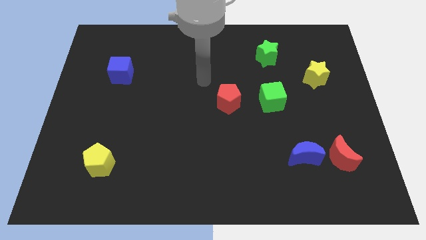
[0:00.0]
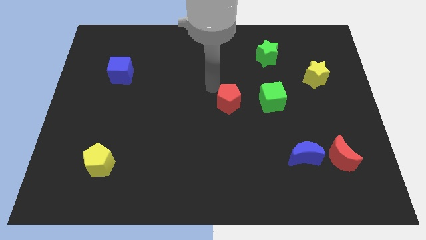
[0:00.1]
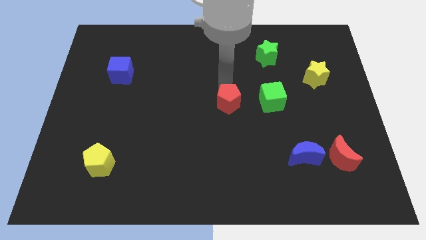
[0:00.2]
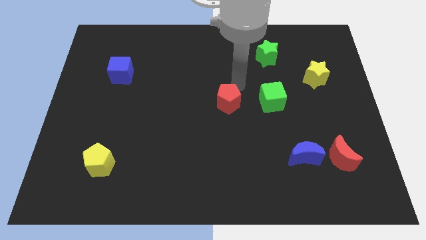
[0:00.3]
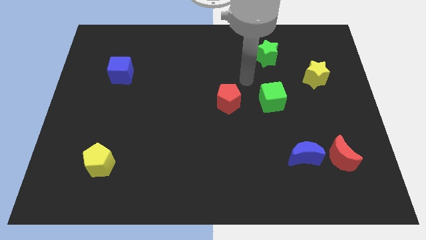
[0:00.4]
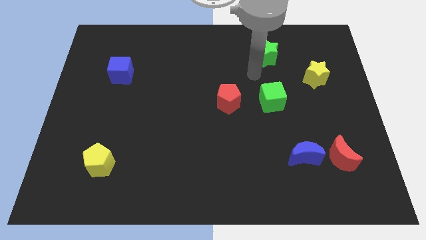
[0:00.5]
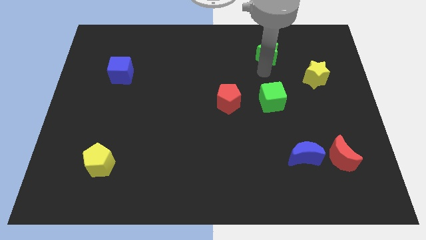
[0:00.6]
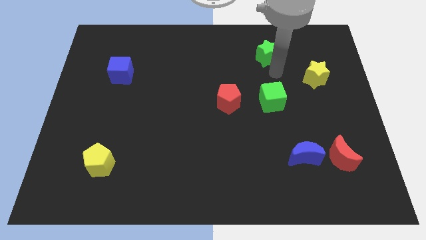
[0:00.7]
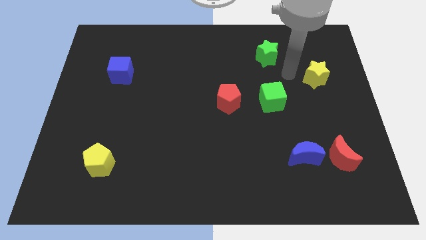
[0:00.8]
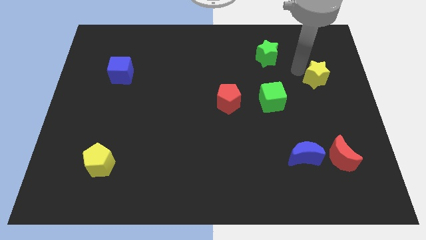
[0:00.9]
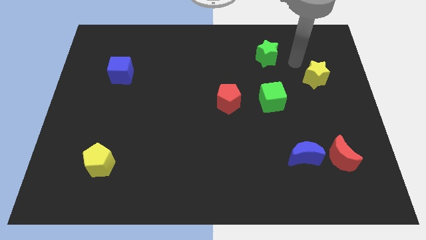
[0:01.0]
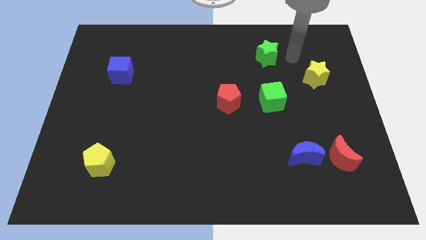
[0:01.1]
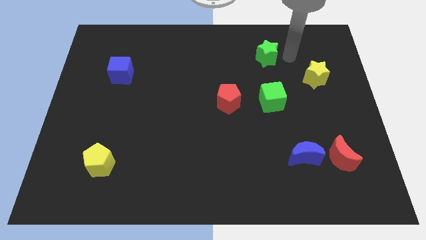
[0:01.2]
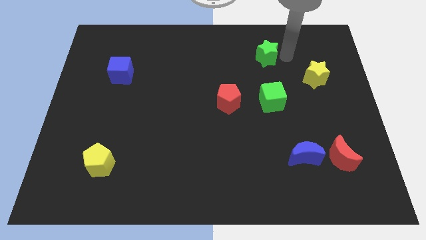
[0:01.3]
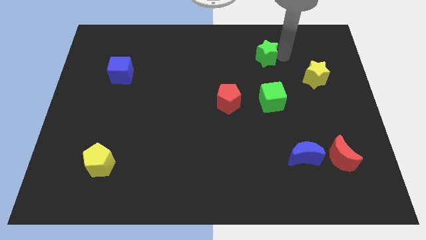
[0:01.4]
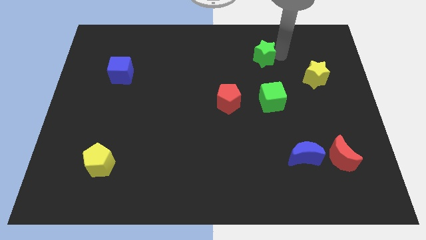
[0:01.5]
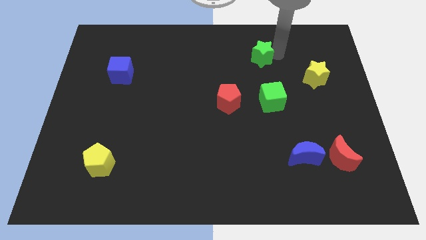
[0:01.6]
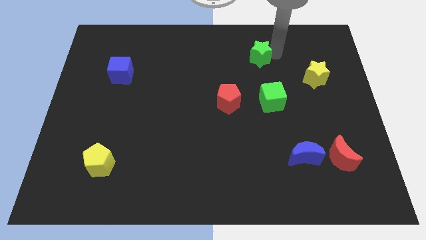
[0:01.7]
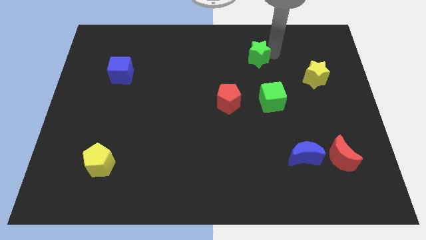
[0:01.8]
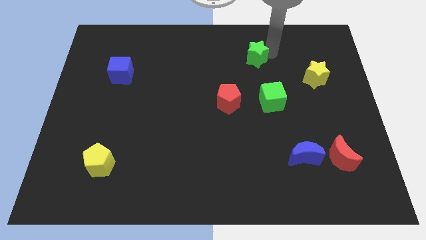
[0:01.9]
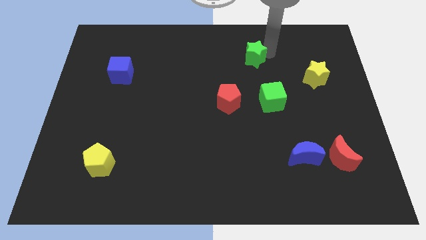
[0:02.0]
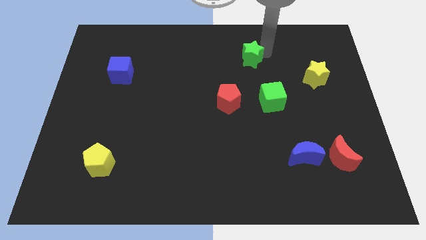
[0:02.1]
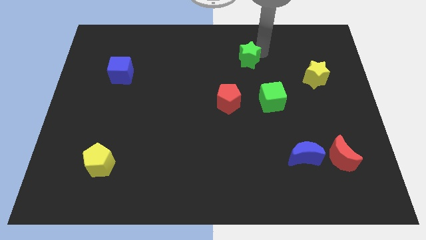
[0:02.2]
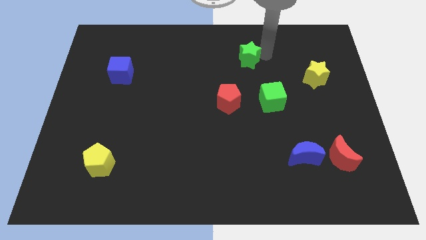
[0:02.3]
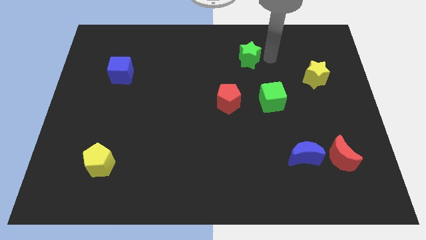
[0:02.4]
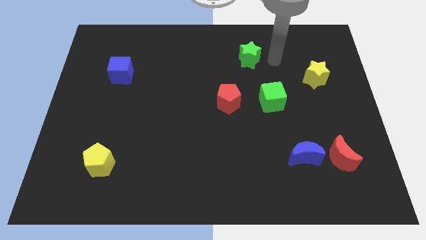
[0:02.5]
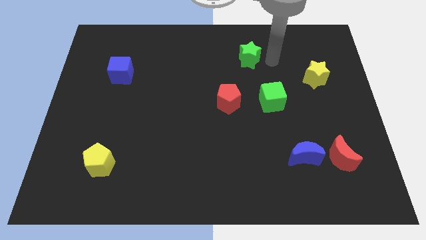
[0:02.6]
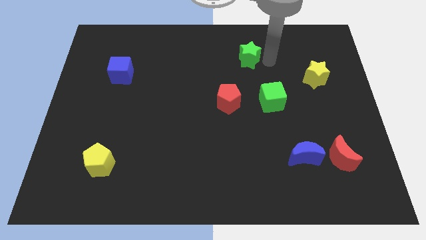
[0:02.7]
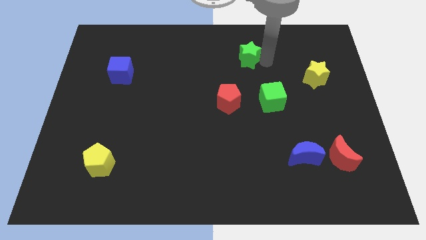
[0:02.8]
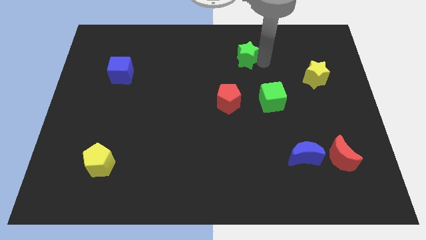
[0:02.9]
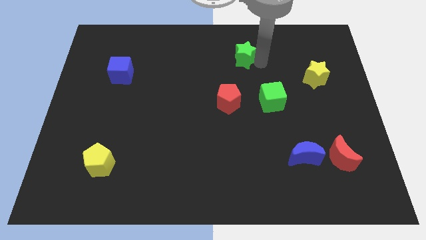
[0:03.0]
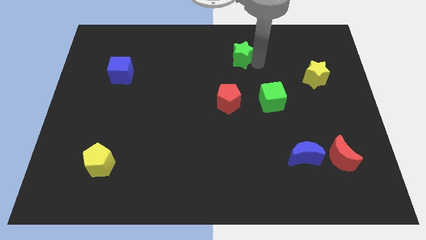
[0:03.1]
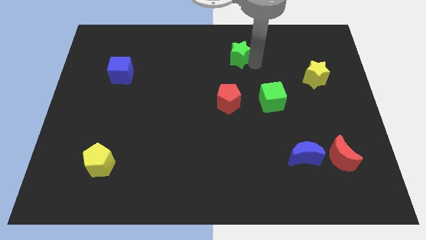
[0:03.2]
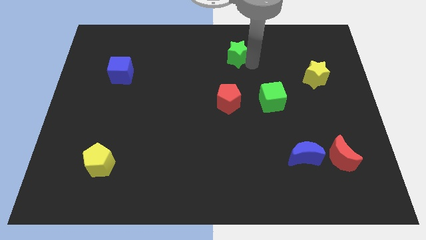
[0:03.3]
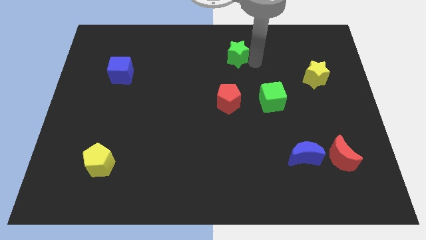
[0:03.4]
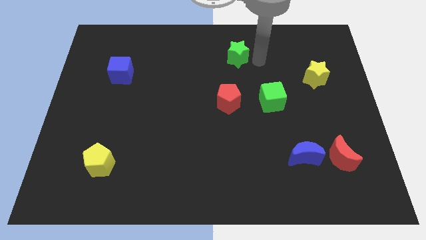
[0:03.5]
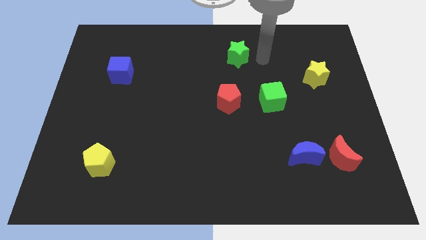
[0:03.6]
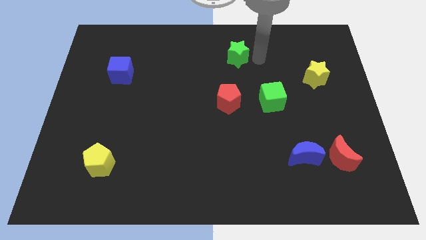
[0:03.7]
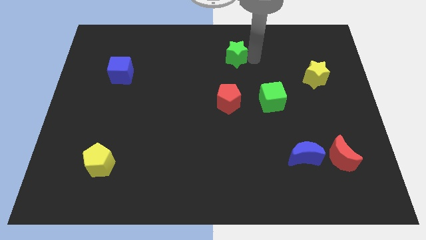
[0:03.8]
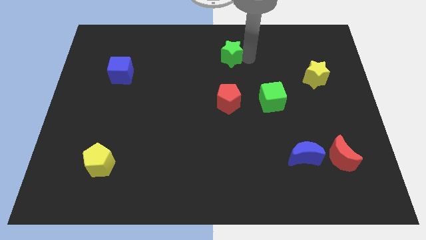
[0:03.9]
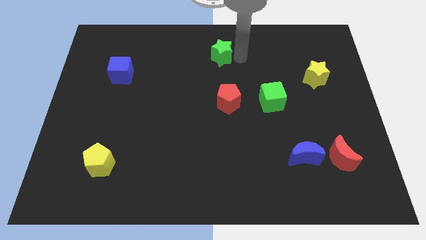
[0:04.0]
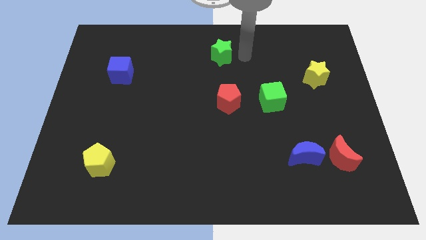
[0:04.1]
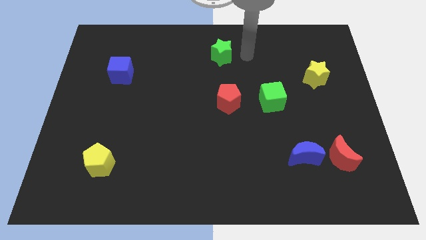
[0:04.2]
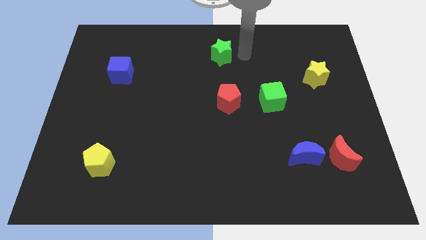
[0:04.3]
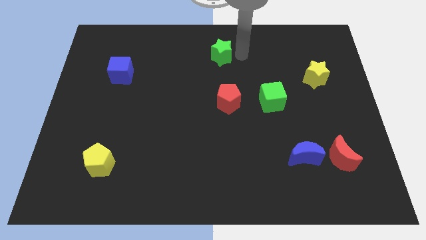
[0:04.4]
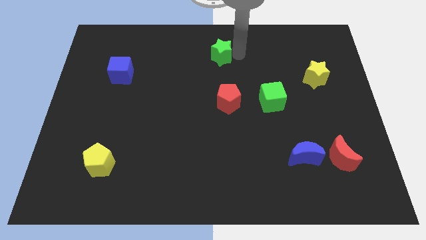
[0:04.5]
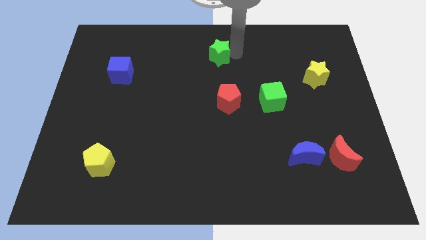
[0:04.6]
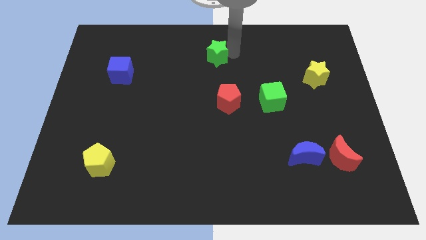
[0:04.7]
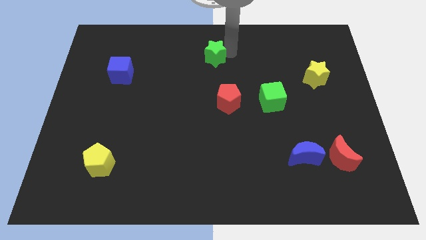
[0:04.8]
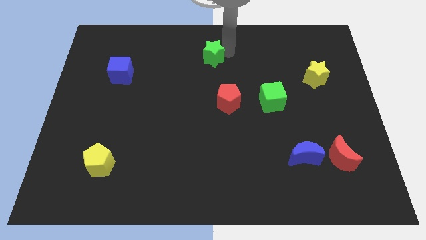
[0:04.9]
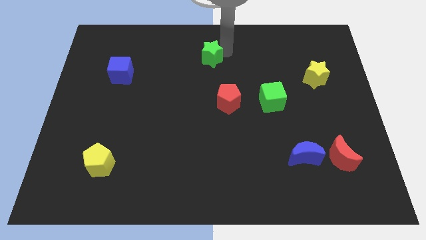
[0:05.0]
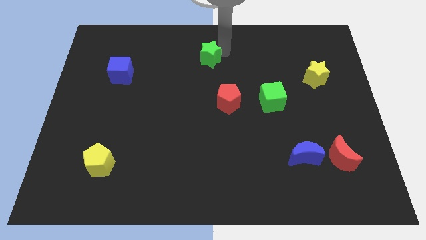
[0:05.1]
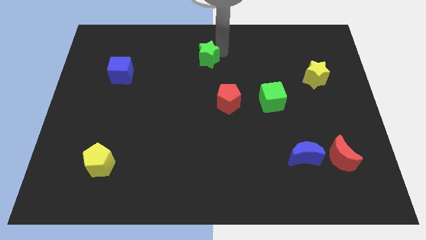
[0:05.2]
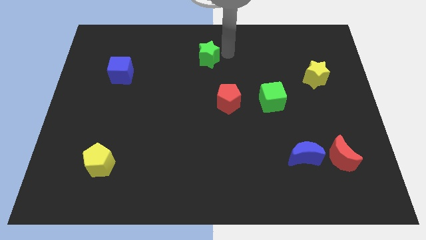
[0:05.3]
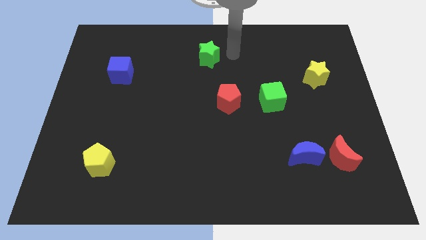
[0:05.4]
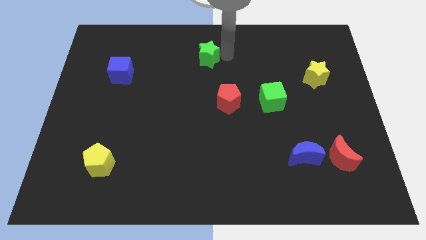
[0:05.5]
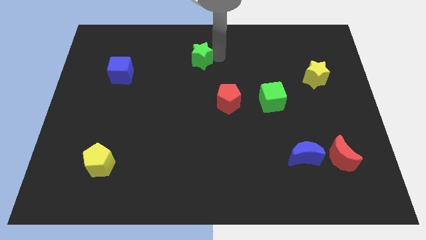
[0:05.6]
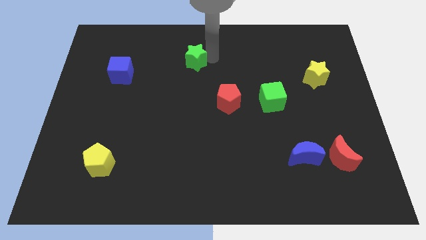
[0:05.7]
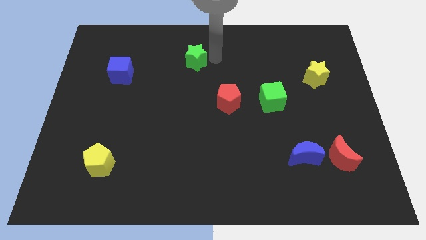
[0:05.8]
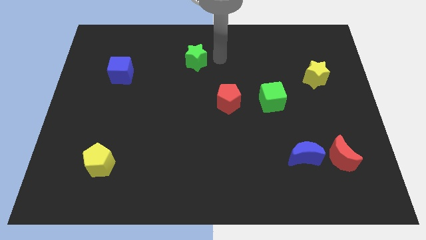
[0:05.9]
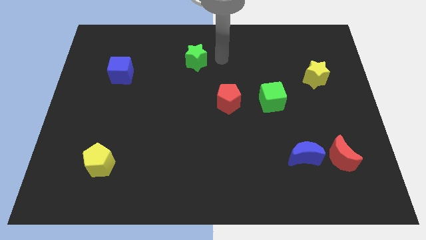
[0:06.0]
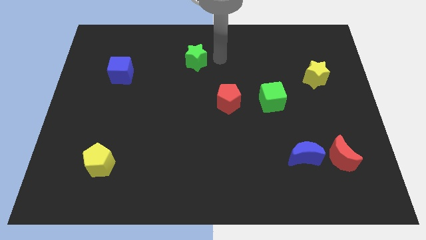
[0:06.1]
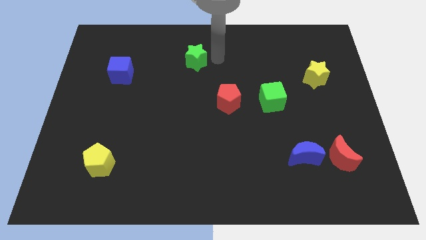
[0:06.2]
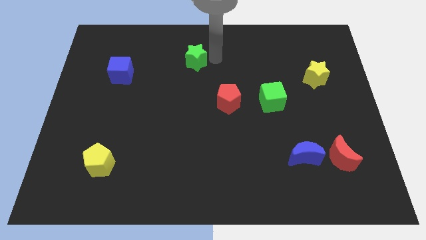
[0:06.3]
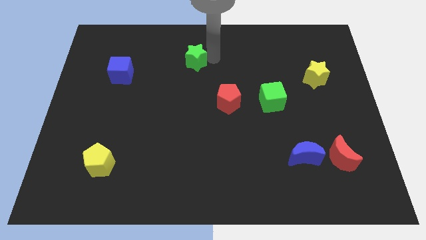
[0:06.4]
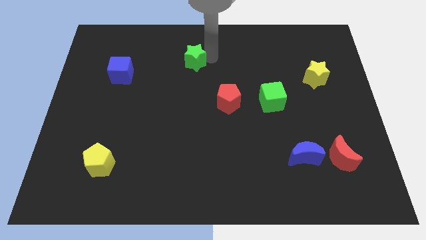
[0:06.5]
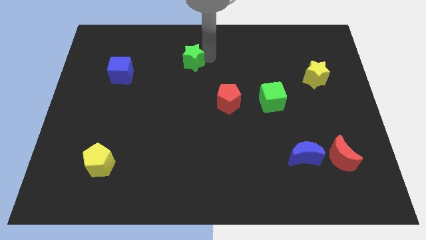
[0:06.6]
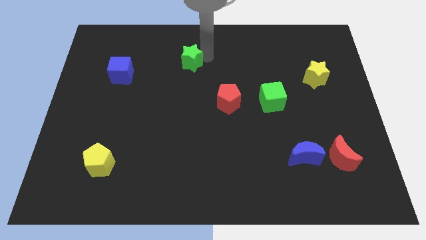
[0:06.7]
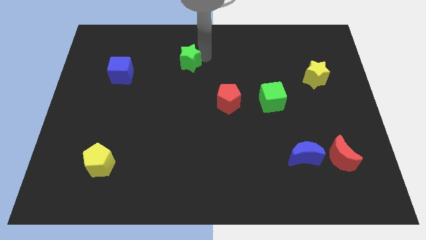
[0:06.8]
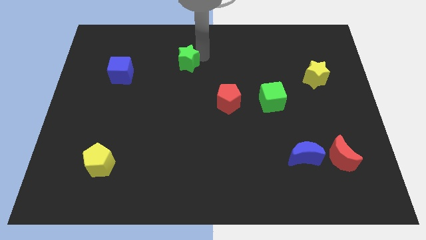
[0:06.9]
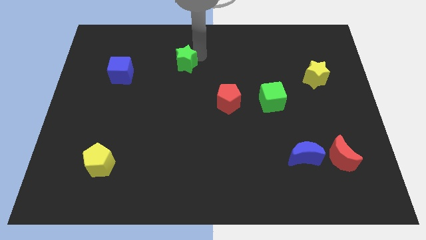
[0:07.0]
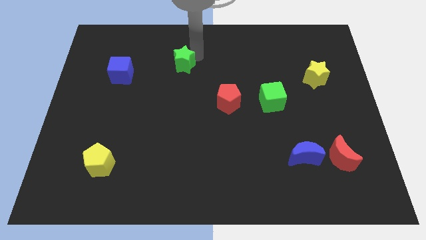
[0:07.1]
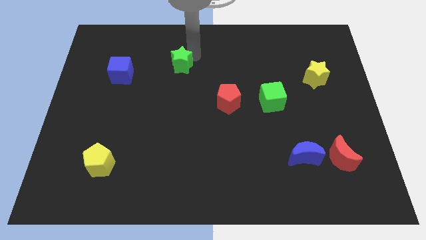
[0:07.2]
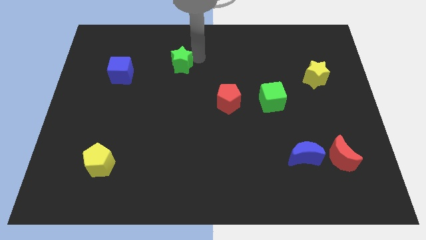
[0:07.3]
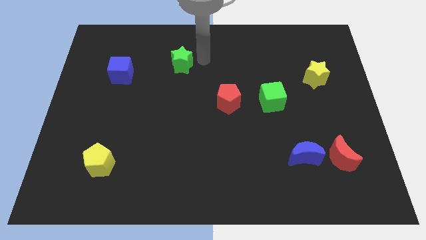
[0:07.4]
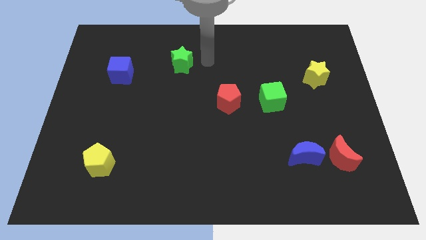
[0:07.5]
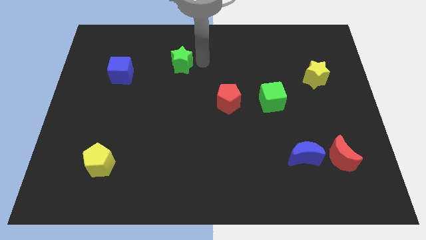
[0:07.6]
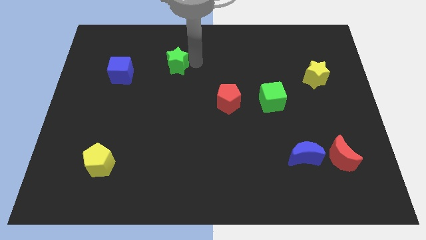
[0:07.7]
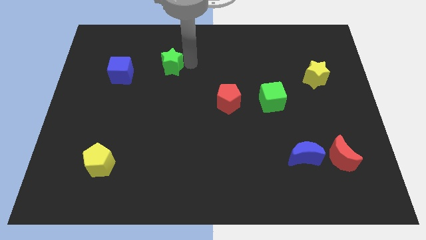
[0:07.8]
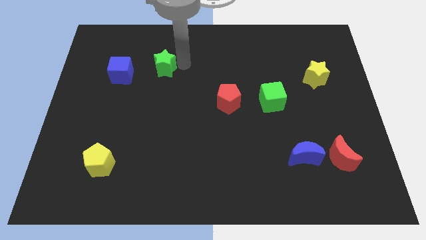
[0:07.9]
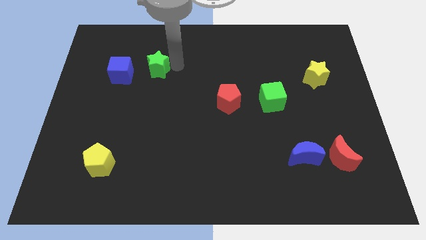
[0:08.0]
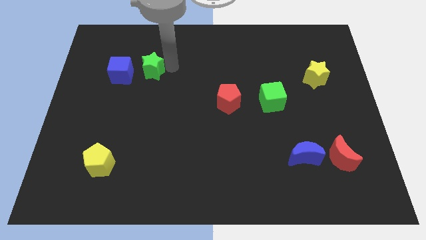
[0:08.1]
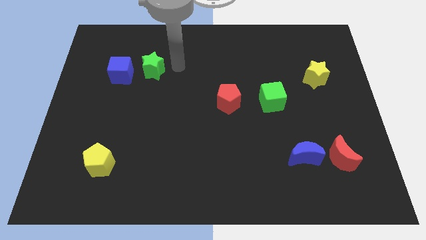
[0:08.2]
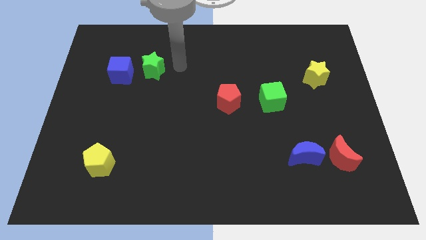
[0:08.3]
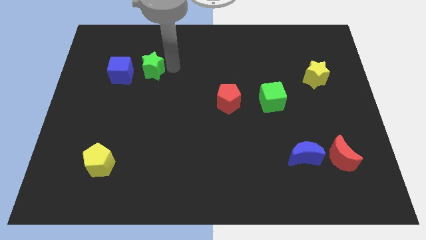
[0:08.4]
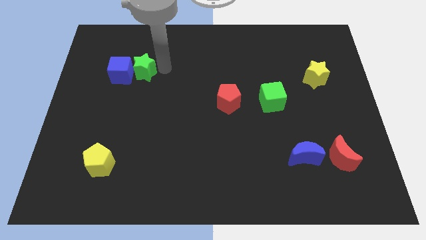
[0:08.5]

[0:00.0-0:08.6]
slide the green star to the blue cube
